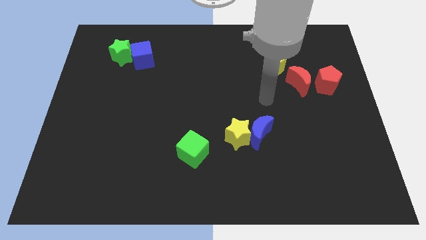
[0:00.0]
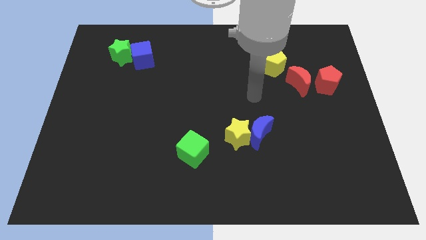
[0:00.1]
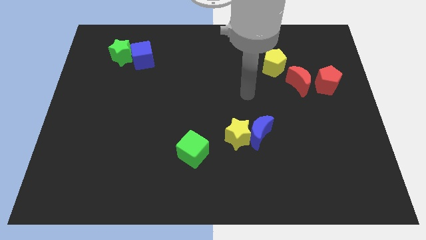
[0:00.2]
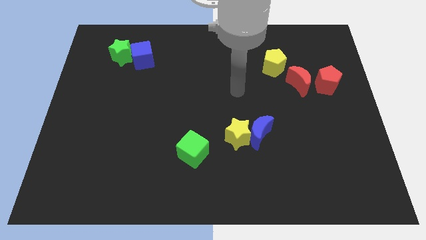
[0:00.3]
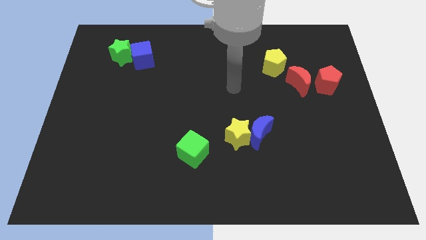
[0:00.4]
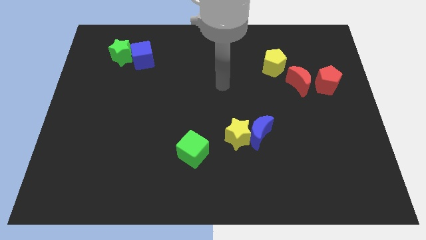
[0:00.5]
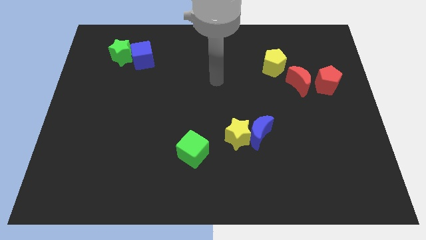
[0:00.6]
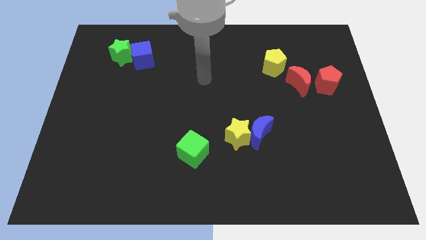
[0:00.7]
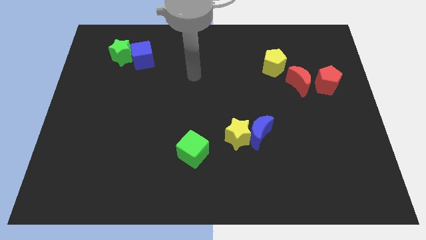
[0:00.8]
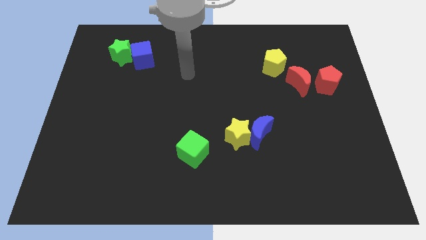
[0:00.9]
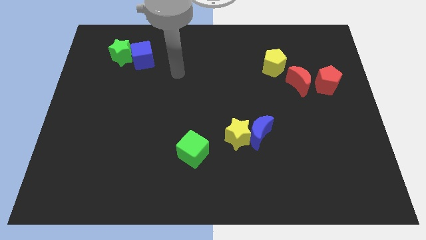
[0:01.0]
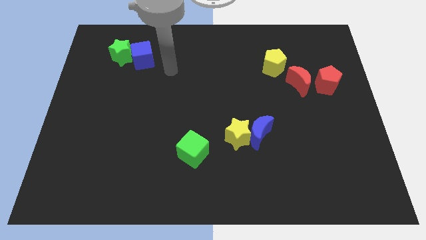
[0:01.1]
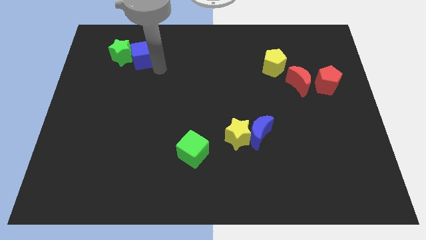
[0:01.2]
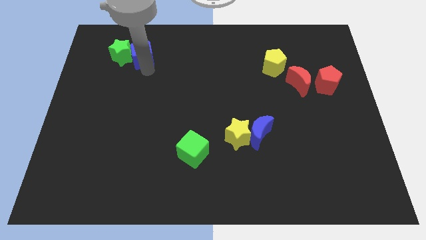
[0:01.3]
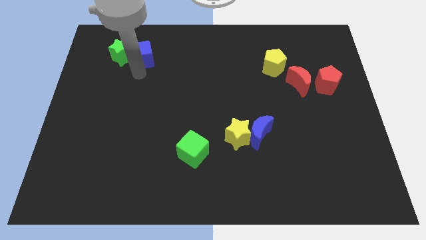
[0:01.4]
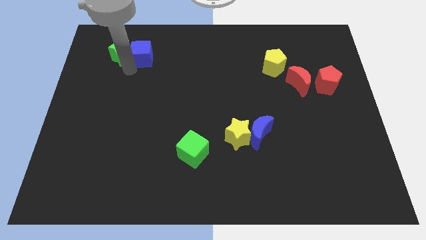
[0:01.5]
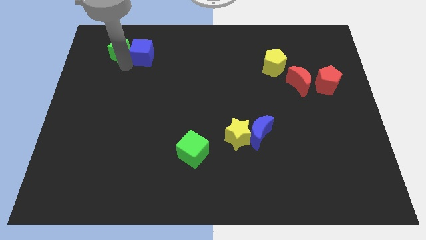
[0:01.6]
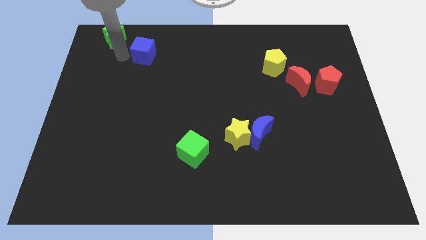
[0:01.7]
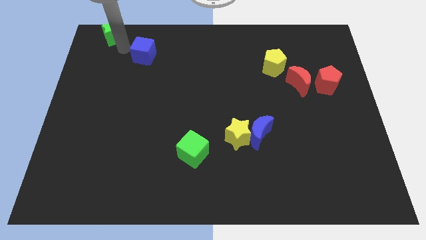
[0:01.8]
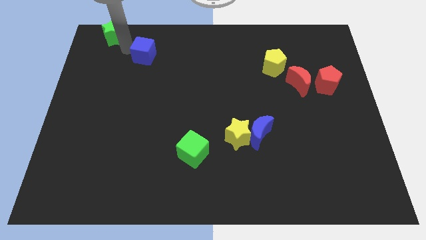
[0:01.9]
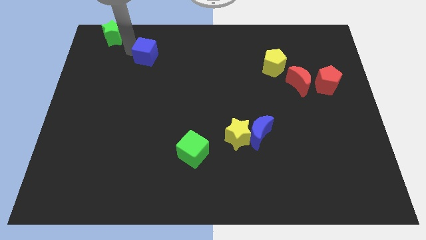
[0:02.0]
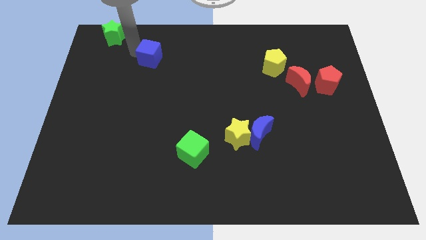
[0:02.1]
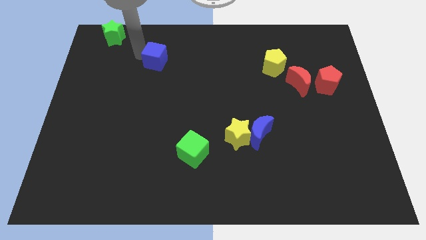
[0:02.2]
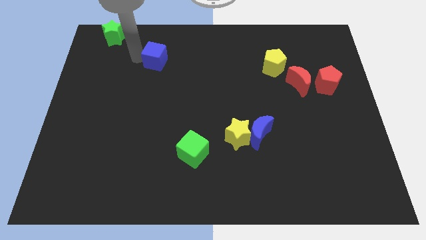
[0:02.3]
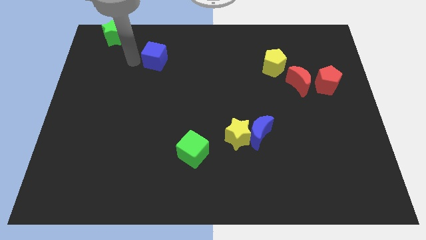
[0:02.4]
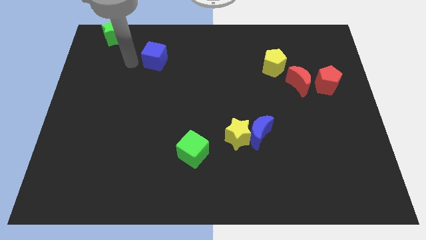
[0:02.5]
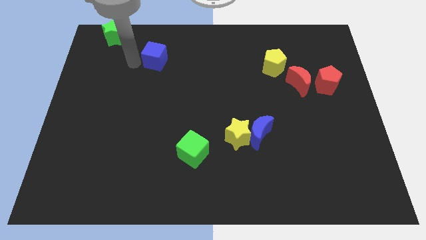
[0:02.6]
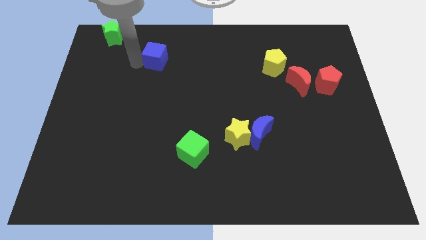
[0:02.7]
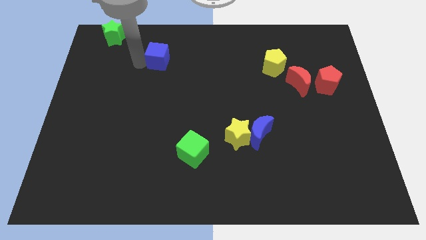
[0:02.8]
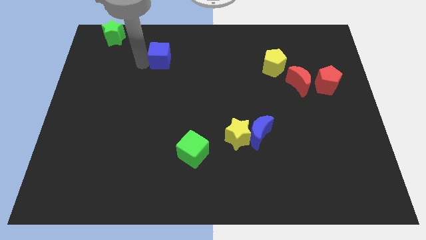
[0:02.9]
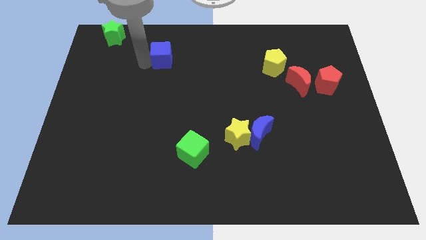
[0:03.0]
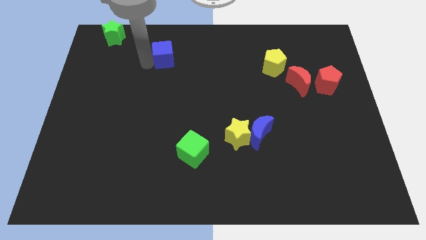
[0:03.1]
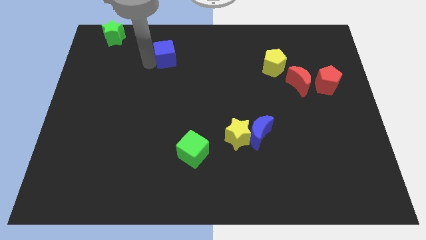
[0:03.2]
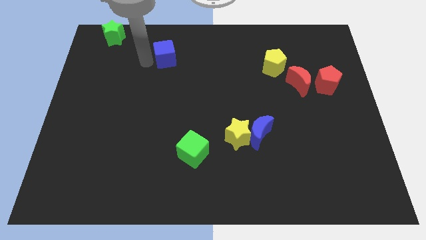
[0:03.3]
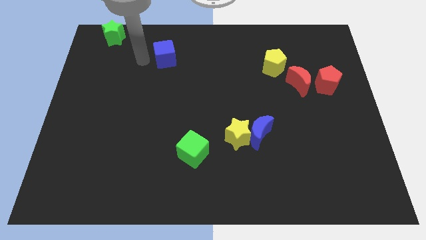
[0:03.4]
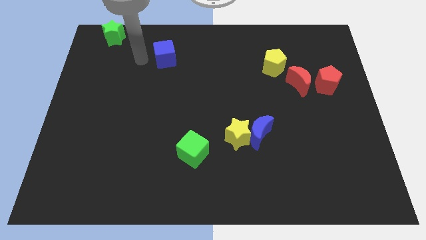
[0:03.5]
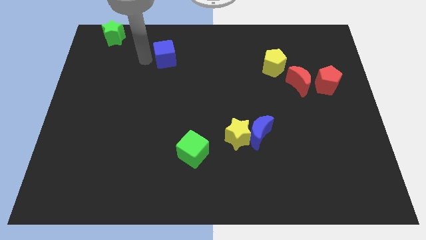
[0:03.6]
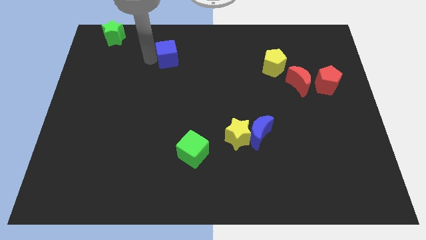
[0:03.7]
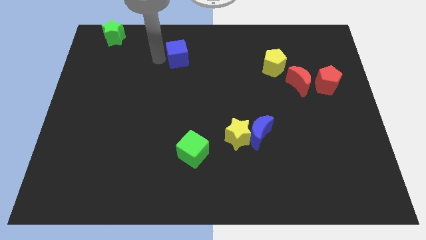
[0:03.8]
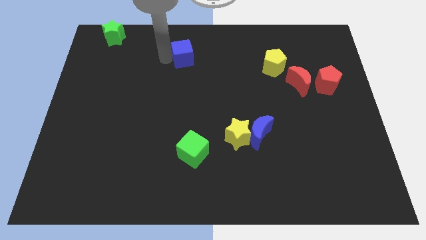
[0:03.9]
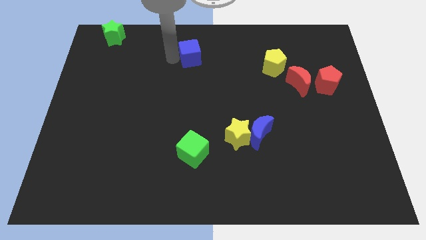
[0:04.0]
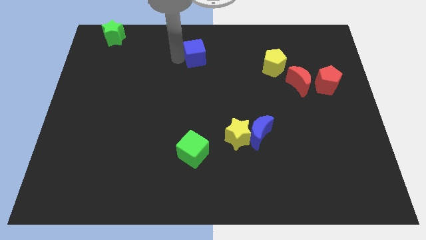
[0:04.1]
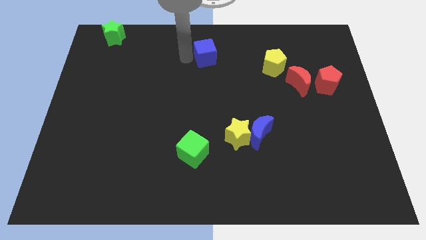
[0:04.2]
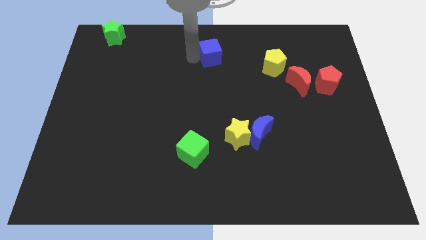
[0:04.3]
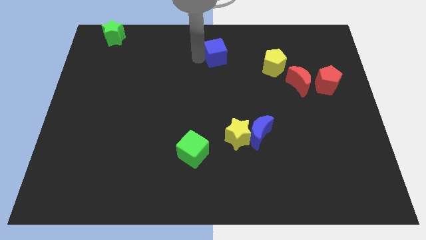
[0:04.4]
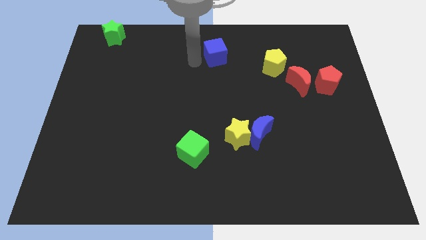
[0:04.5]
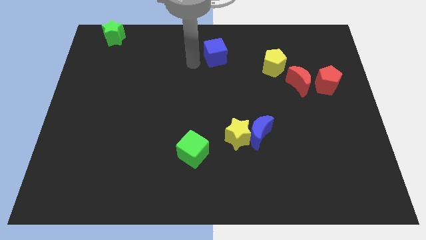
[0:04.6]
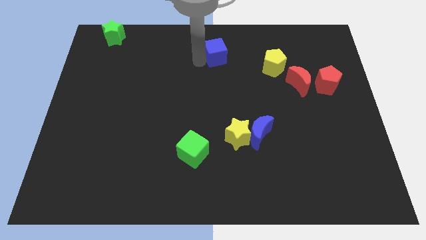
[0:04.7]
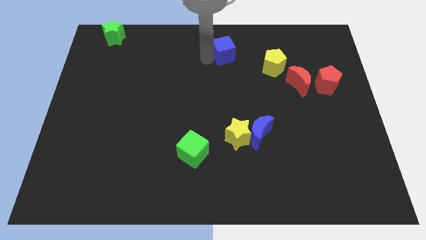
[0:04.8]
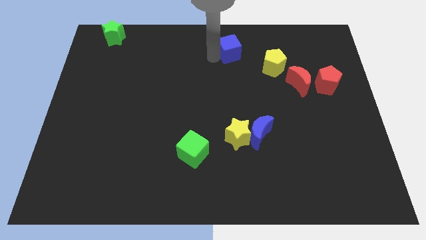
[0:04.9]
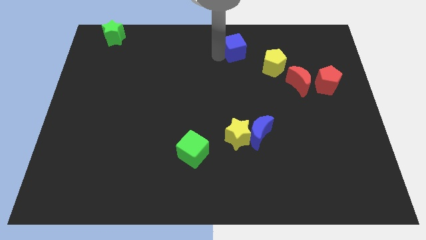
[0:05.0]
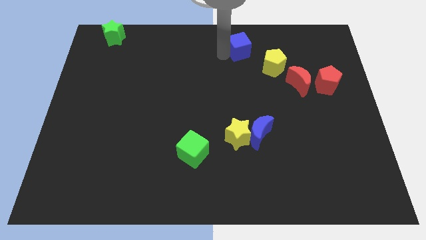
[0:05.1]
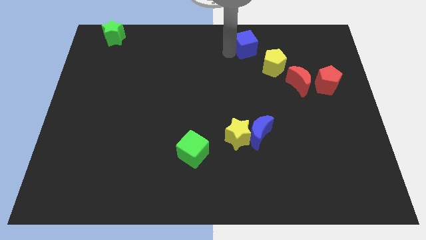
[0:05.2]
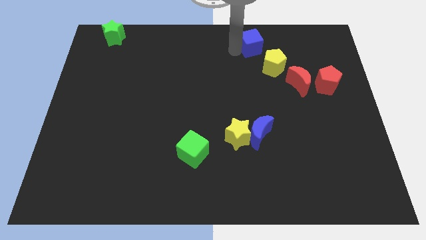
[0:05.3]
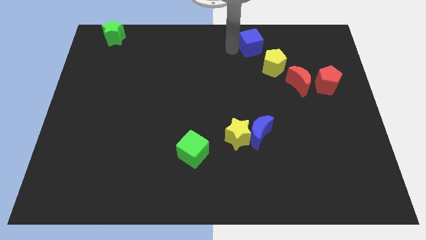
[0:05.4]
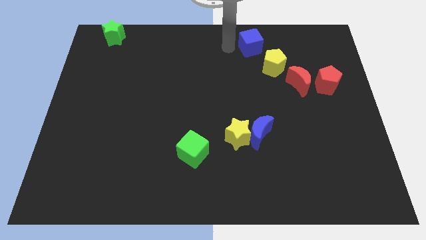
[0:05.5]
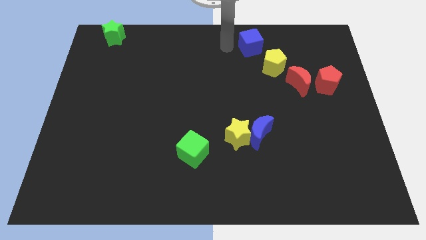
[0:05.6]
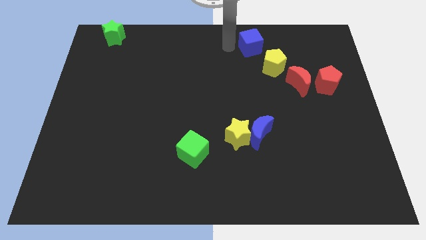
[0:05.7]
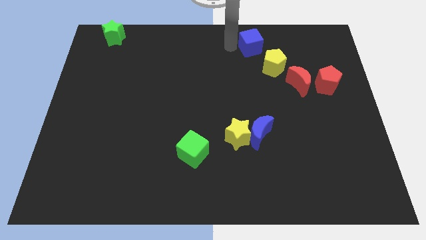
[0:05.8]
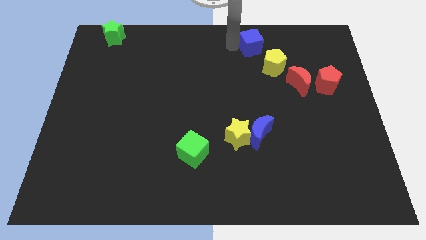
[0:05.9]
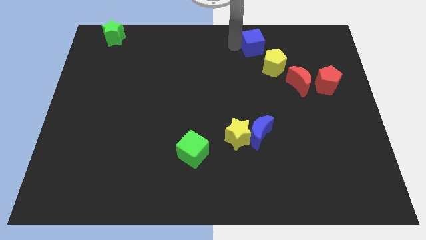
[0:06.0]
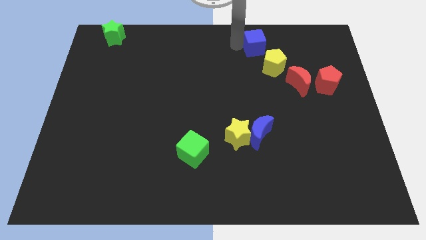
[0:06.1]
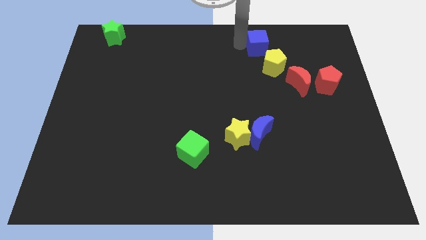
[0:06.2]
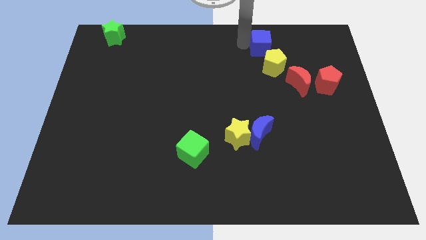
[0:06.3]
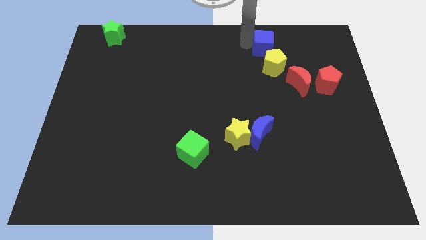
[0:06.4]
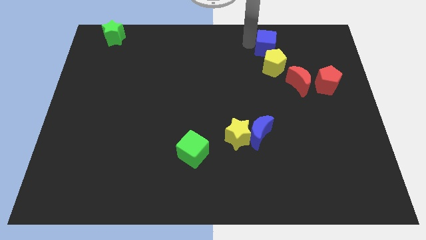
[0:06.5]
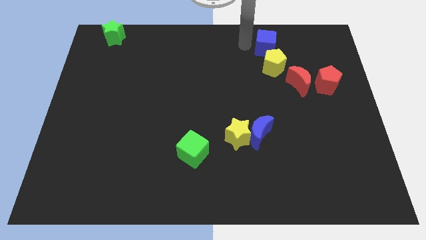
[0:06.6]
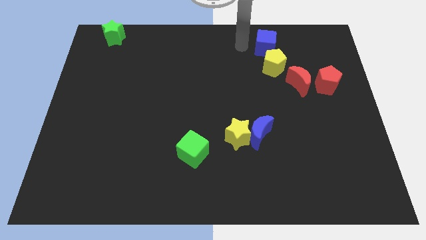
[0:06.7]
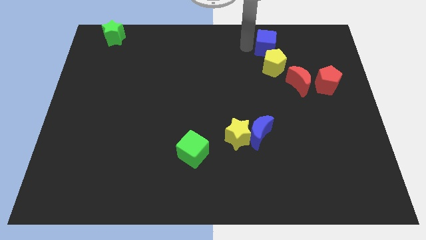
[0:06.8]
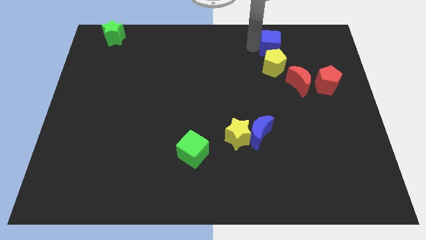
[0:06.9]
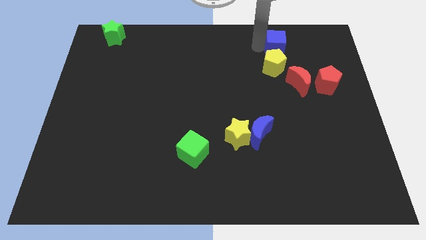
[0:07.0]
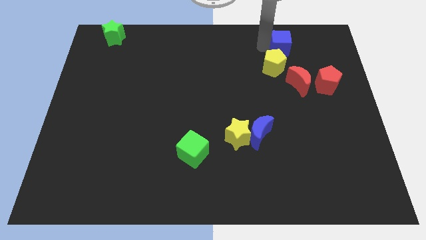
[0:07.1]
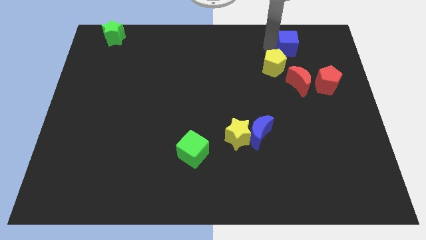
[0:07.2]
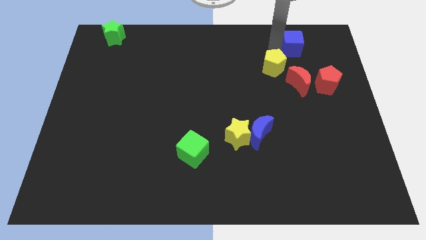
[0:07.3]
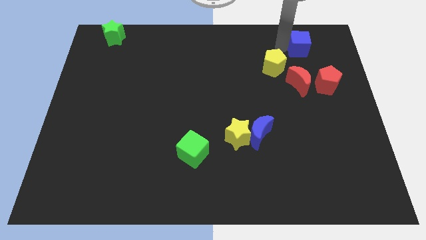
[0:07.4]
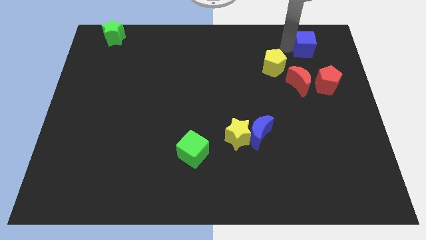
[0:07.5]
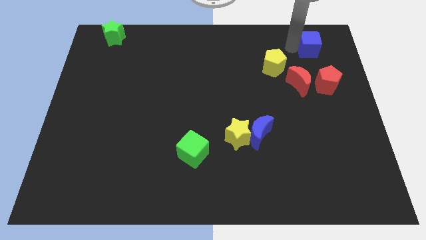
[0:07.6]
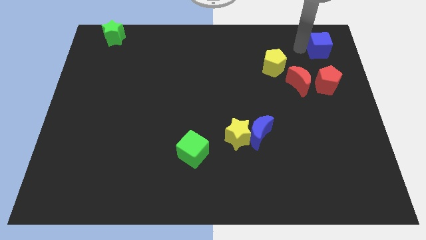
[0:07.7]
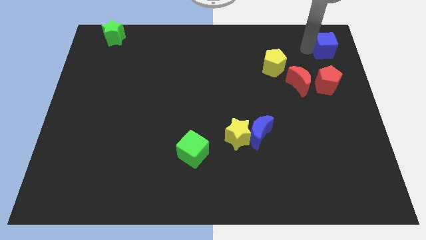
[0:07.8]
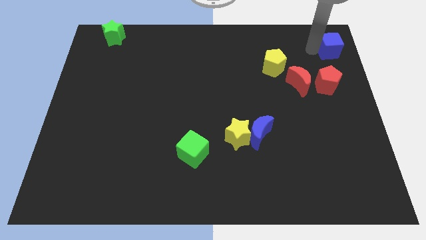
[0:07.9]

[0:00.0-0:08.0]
move the blue cube to the top right of the board
